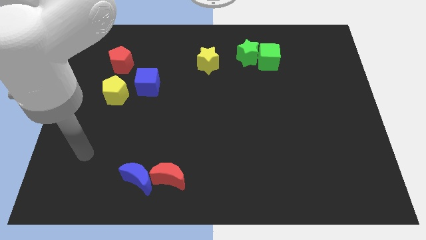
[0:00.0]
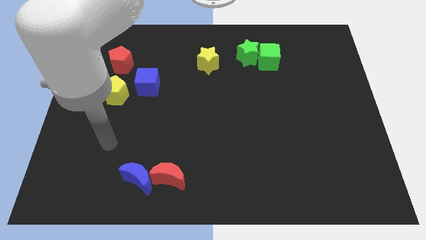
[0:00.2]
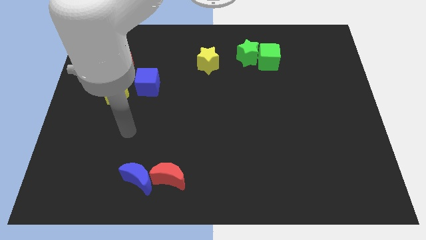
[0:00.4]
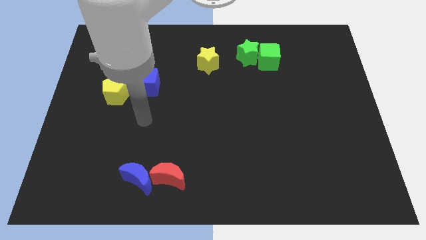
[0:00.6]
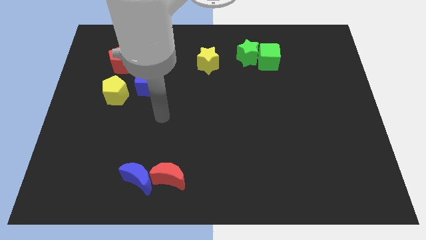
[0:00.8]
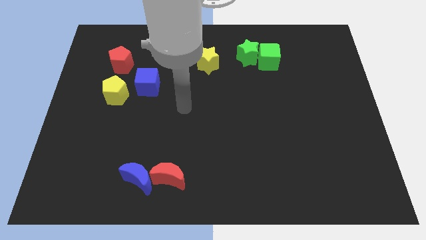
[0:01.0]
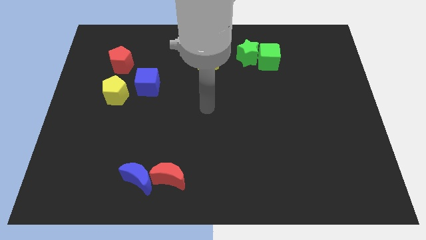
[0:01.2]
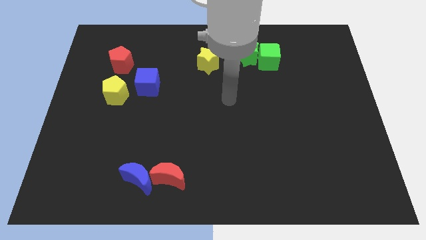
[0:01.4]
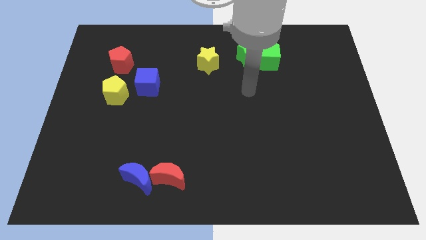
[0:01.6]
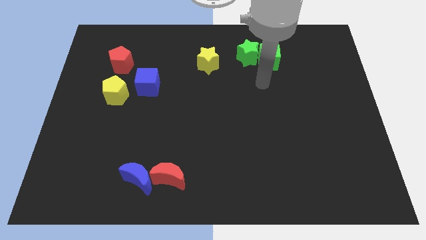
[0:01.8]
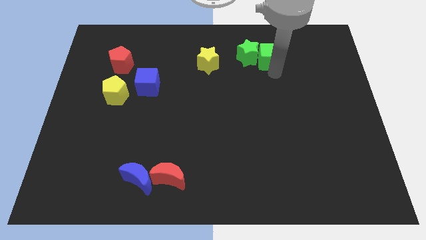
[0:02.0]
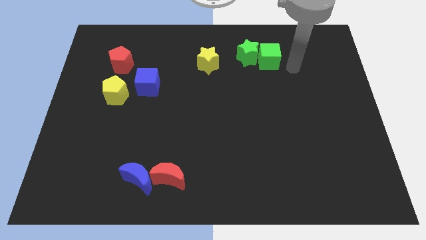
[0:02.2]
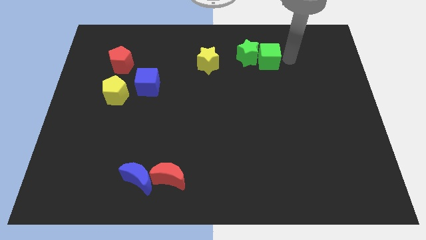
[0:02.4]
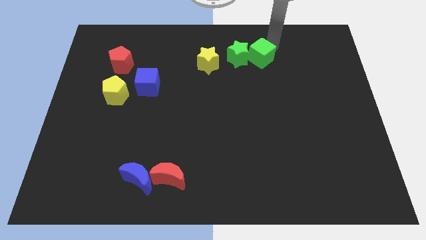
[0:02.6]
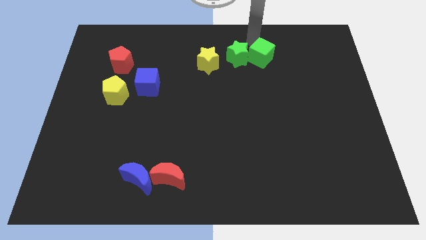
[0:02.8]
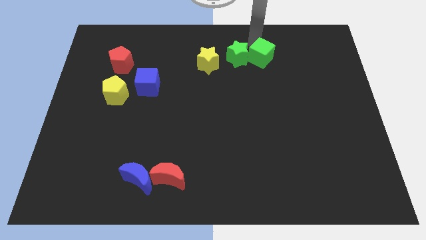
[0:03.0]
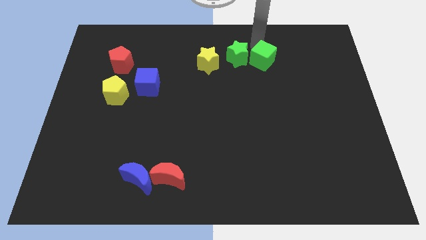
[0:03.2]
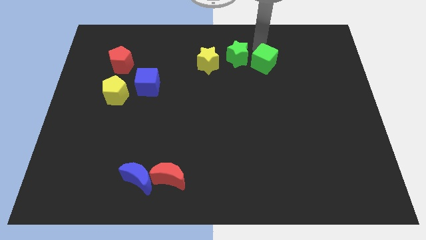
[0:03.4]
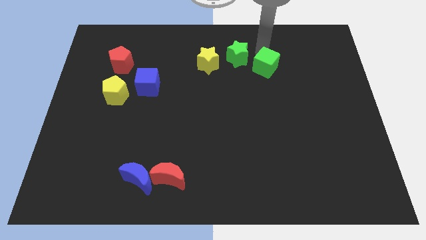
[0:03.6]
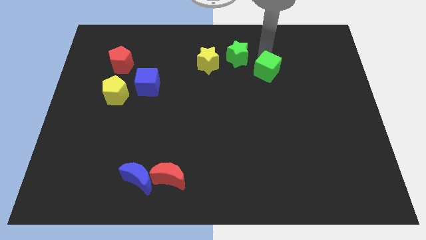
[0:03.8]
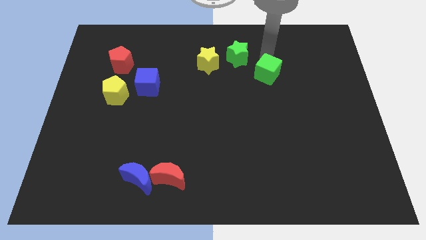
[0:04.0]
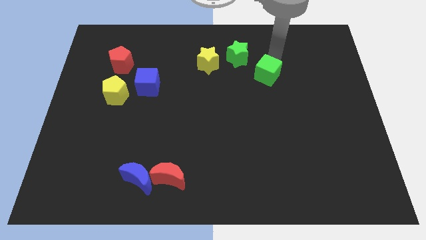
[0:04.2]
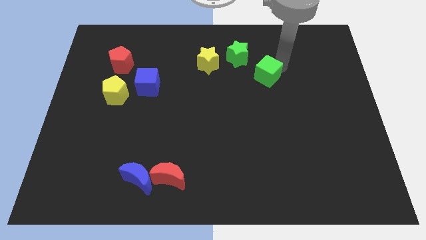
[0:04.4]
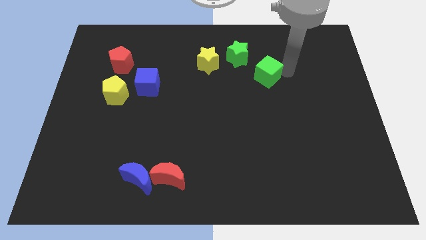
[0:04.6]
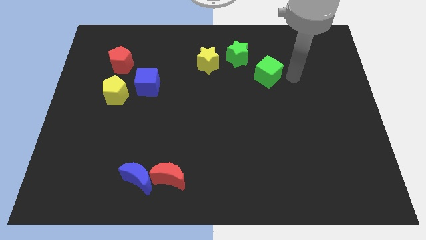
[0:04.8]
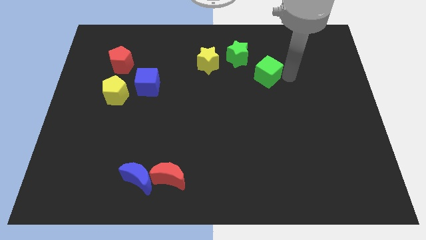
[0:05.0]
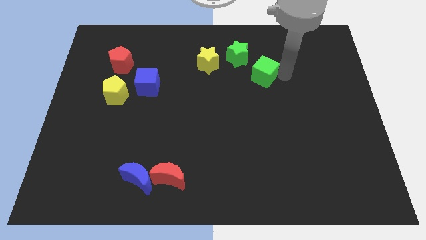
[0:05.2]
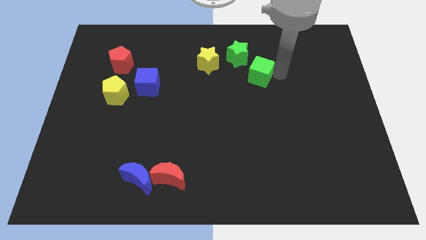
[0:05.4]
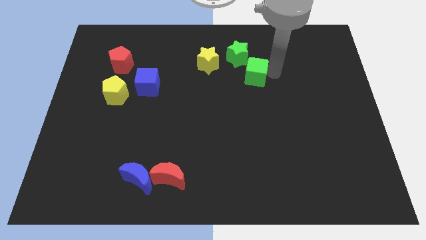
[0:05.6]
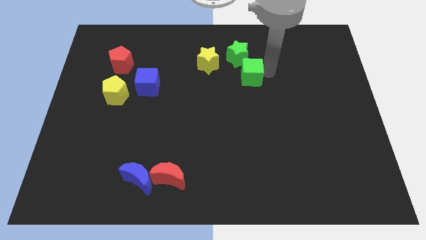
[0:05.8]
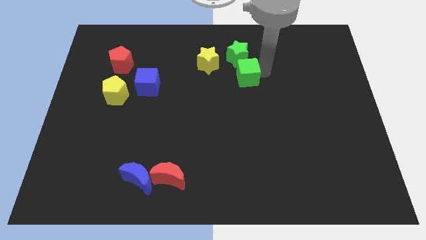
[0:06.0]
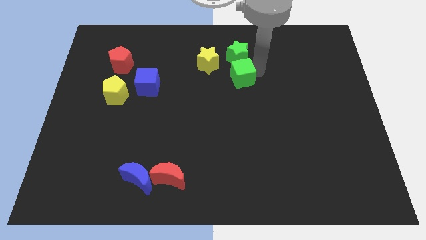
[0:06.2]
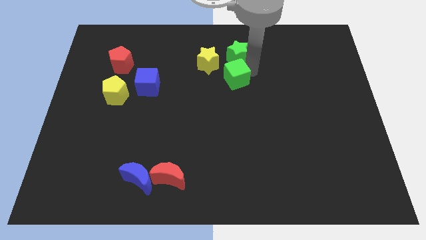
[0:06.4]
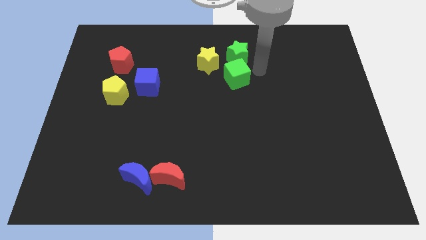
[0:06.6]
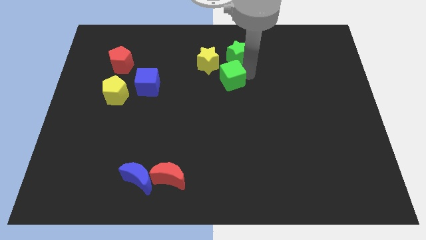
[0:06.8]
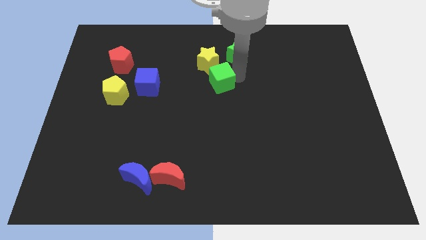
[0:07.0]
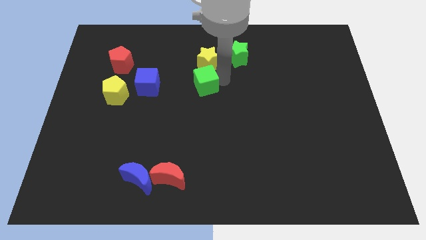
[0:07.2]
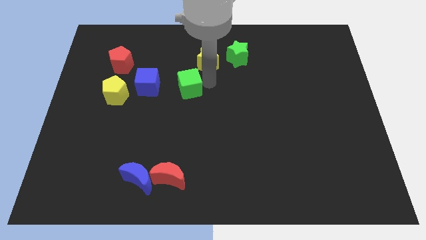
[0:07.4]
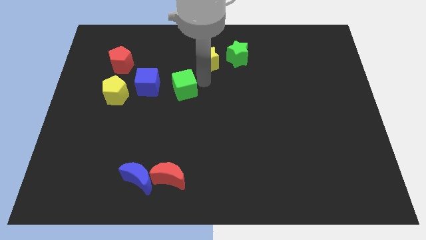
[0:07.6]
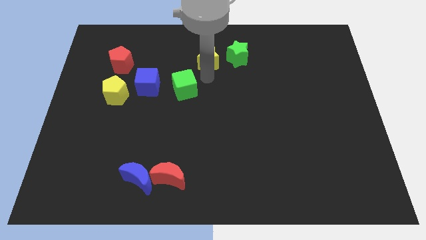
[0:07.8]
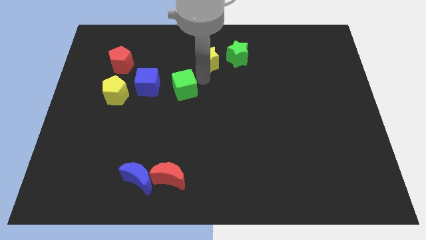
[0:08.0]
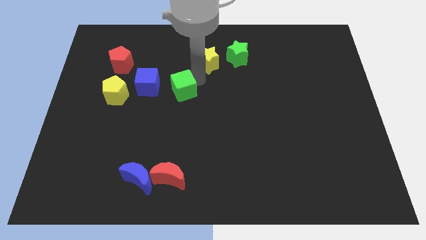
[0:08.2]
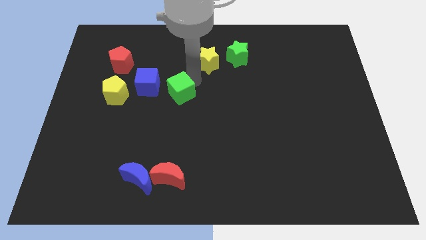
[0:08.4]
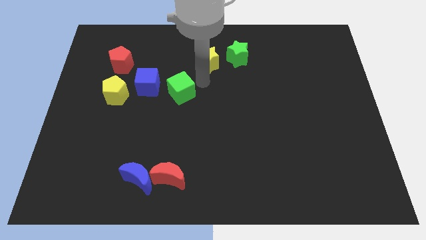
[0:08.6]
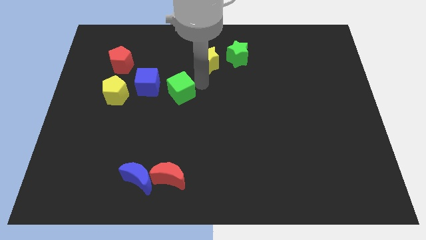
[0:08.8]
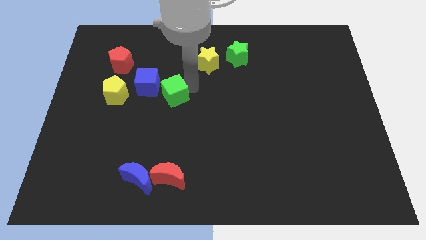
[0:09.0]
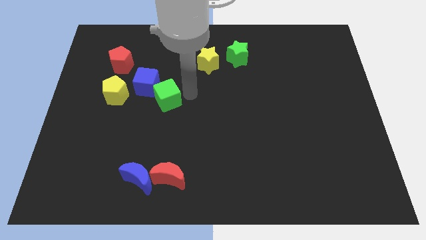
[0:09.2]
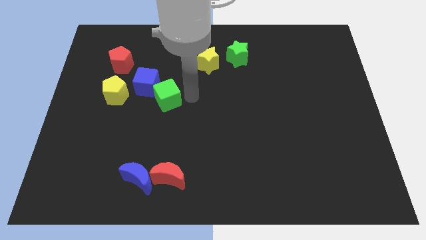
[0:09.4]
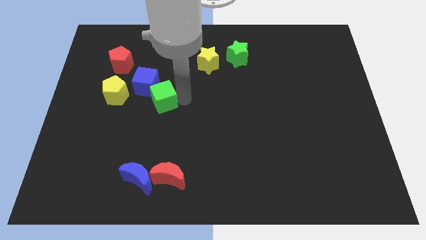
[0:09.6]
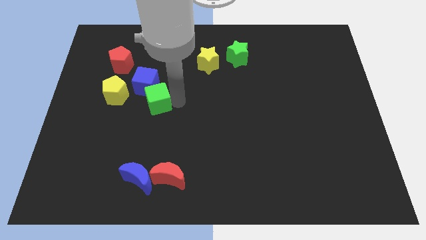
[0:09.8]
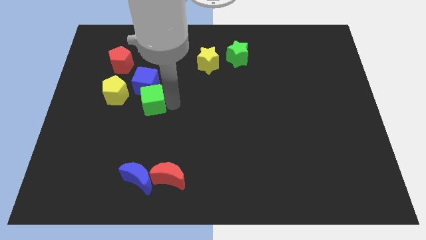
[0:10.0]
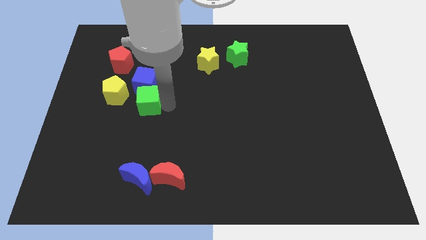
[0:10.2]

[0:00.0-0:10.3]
push the green cube diagonally down and to the left of the blue cube

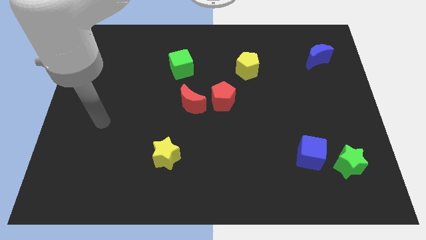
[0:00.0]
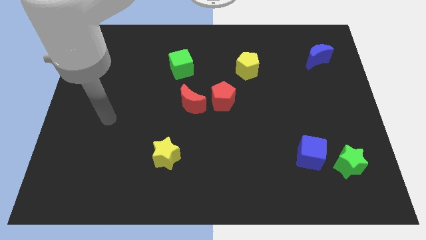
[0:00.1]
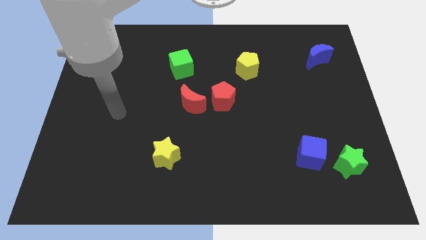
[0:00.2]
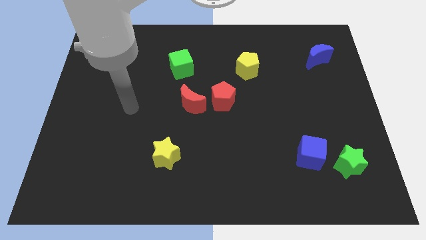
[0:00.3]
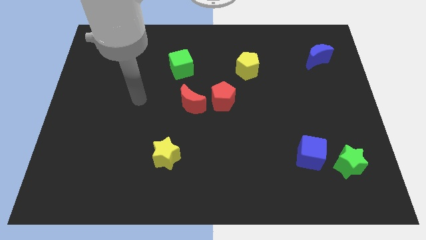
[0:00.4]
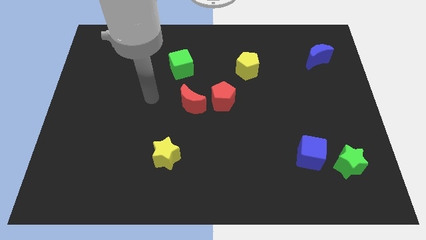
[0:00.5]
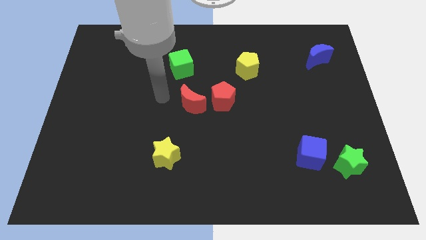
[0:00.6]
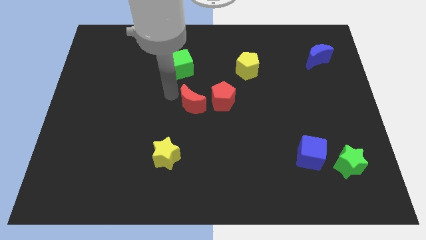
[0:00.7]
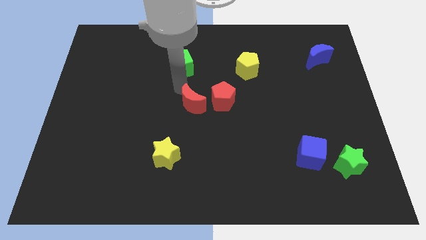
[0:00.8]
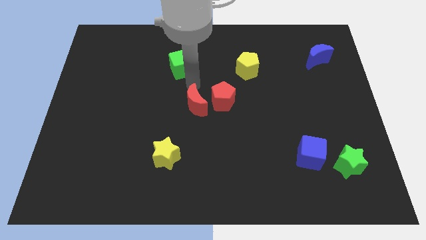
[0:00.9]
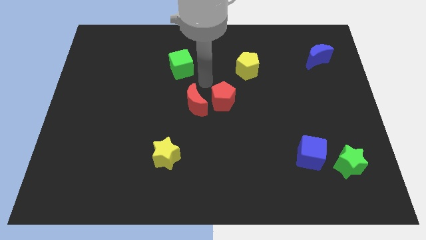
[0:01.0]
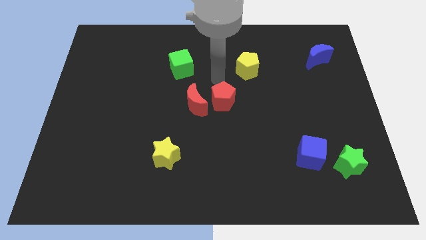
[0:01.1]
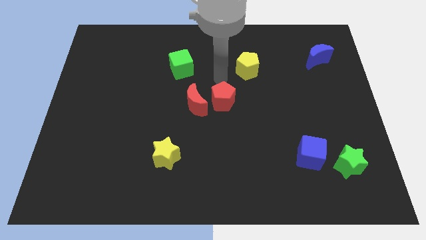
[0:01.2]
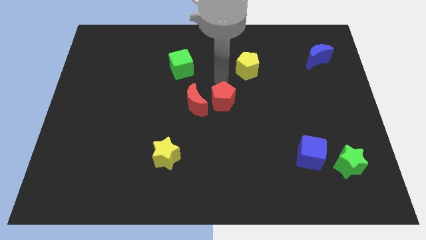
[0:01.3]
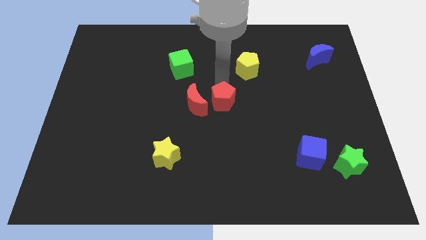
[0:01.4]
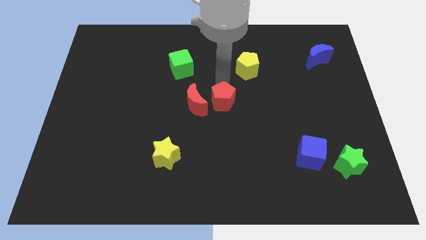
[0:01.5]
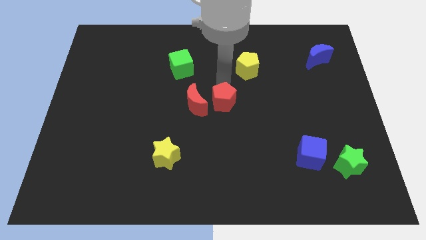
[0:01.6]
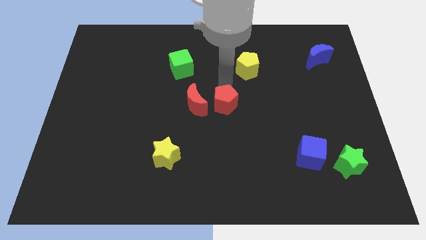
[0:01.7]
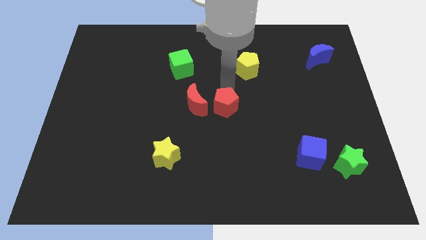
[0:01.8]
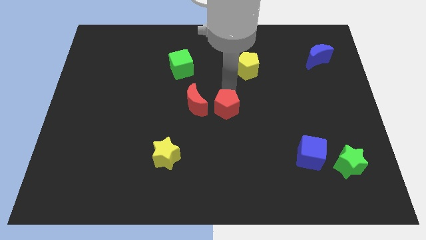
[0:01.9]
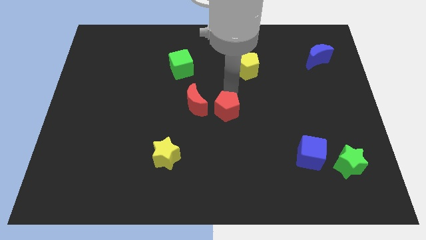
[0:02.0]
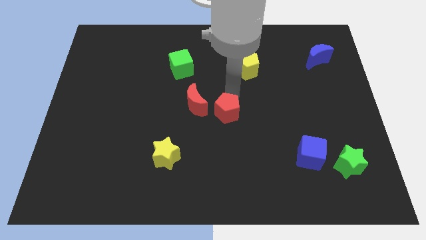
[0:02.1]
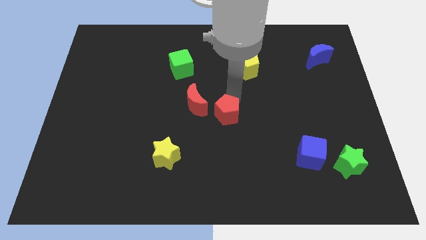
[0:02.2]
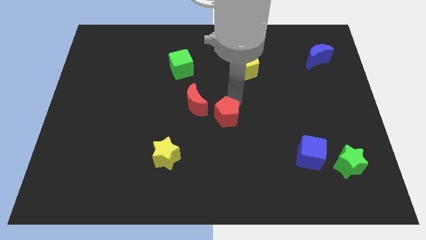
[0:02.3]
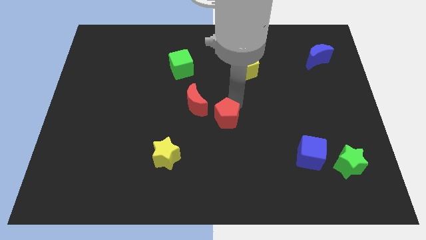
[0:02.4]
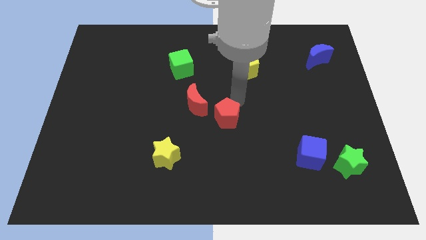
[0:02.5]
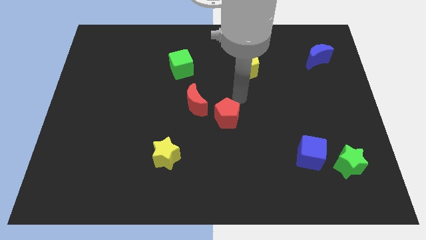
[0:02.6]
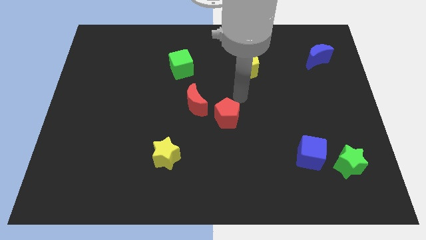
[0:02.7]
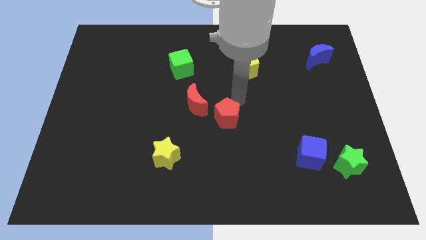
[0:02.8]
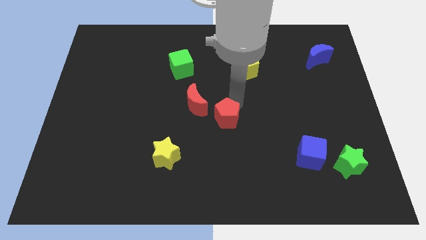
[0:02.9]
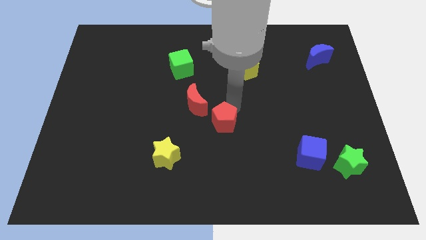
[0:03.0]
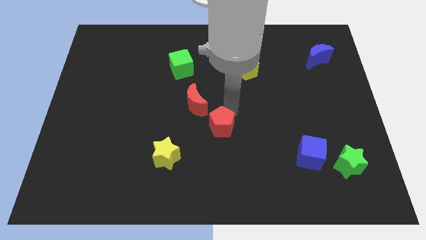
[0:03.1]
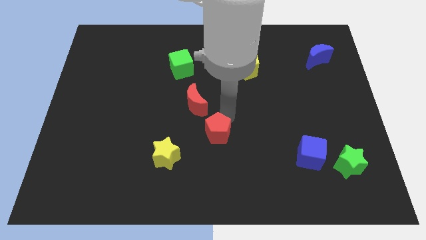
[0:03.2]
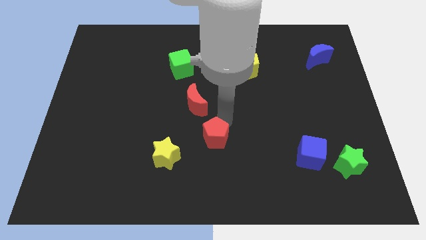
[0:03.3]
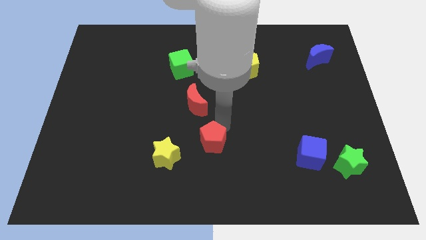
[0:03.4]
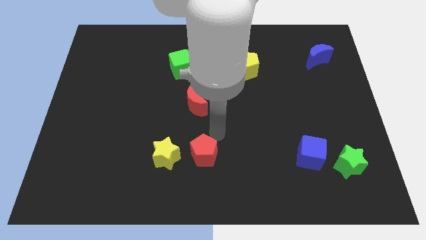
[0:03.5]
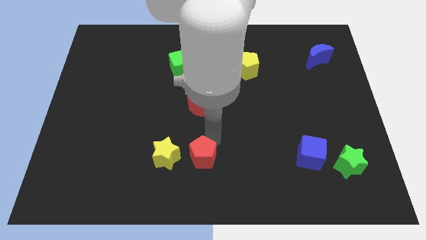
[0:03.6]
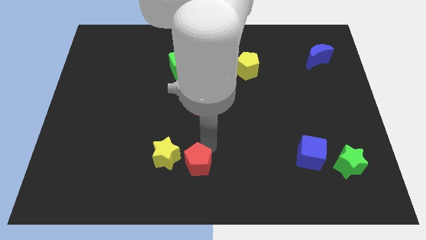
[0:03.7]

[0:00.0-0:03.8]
slide the red pentagon to the bottom right of the yellow star
